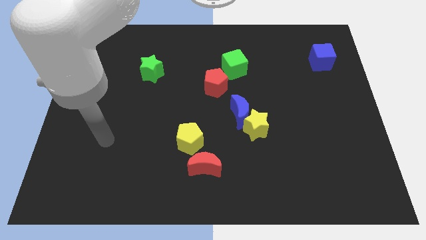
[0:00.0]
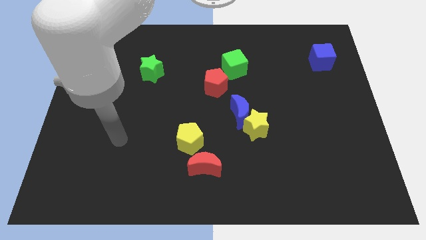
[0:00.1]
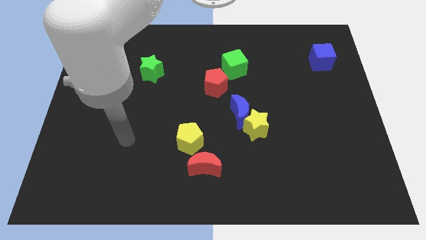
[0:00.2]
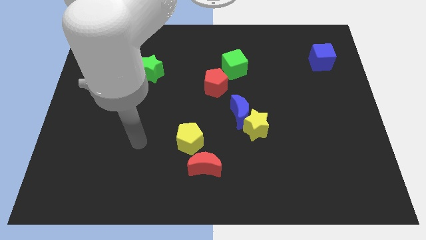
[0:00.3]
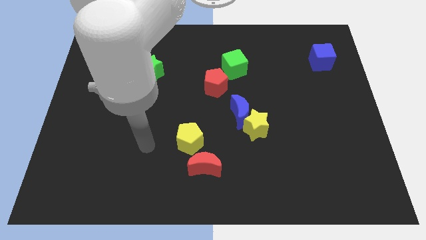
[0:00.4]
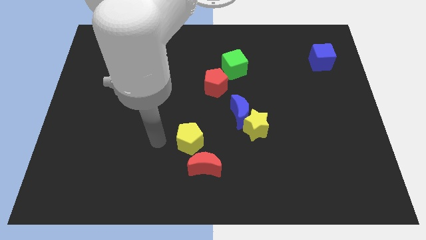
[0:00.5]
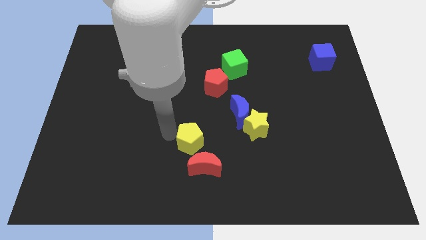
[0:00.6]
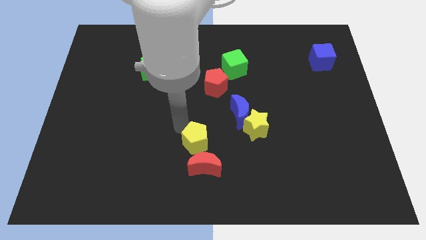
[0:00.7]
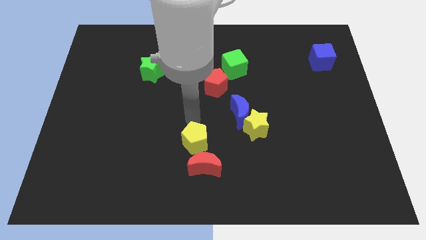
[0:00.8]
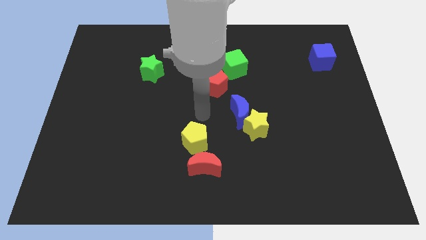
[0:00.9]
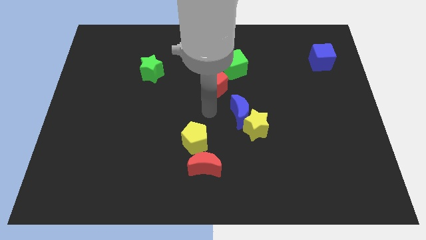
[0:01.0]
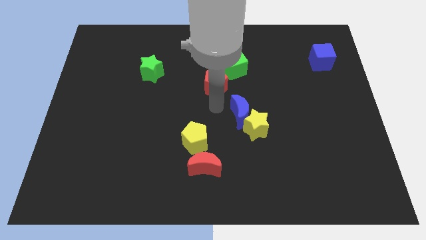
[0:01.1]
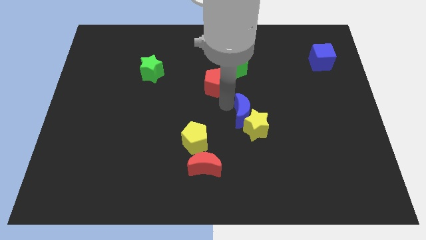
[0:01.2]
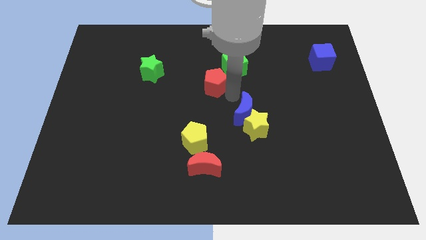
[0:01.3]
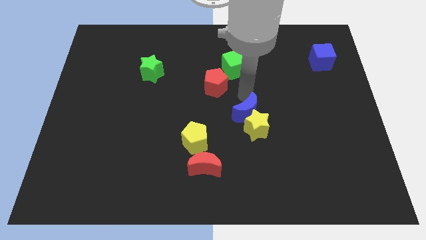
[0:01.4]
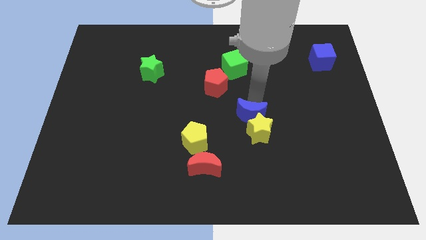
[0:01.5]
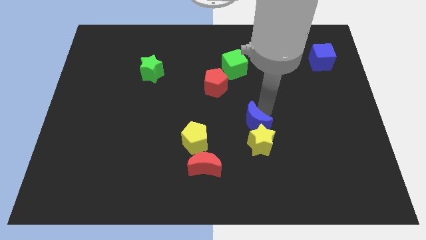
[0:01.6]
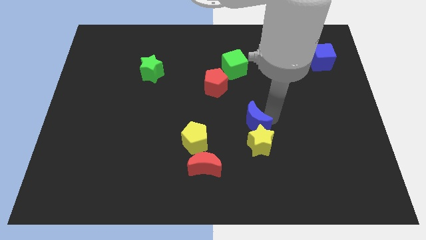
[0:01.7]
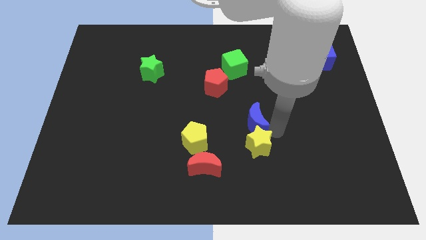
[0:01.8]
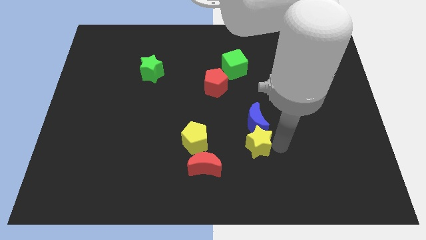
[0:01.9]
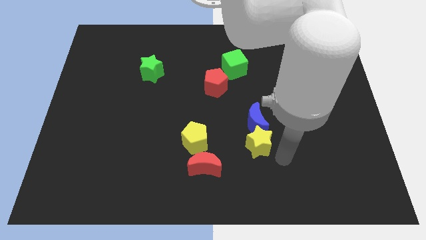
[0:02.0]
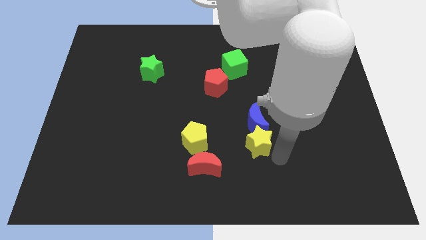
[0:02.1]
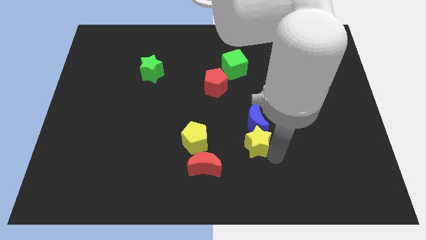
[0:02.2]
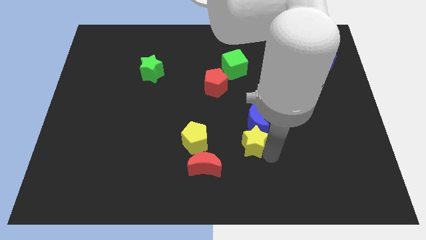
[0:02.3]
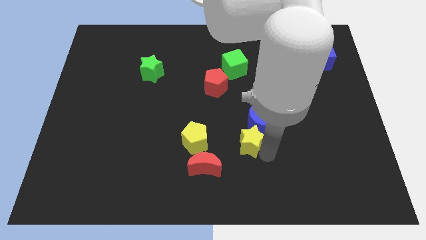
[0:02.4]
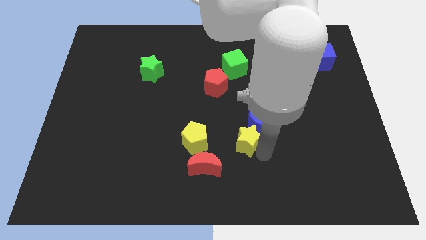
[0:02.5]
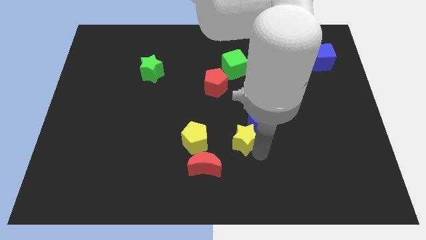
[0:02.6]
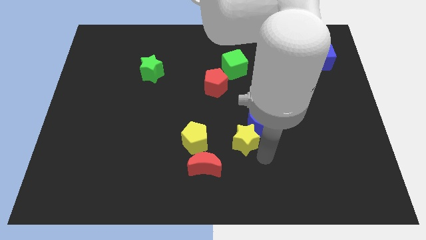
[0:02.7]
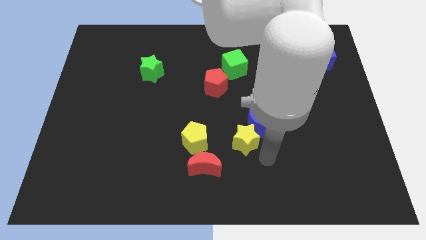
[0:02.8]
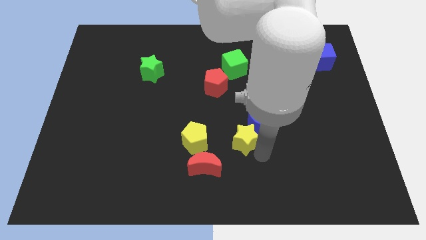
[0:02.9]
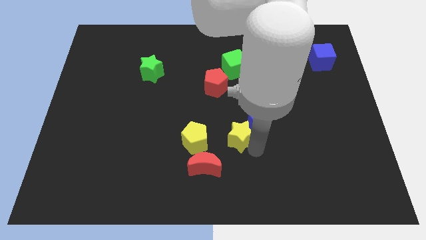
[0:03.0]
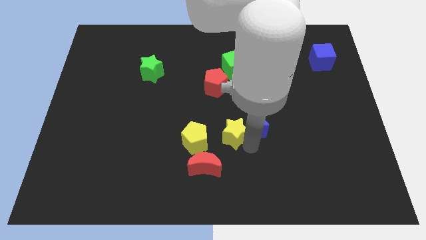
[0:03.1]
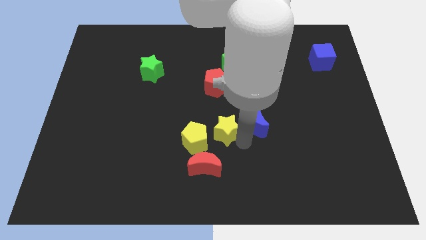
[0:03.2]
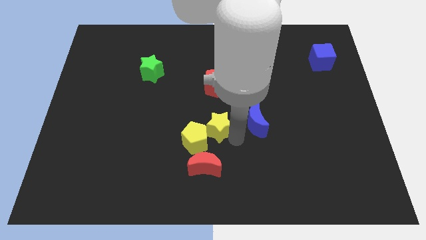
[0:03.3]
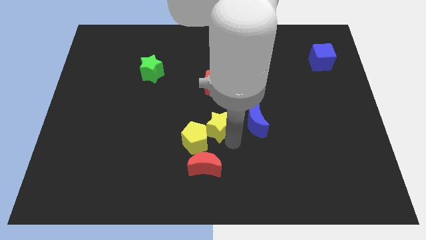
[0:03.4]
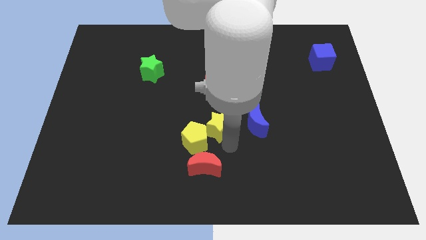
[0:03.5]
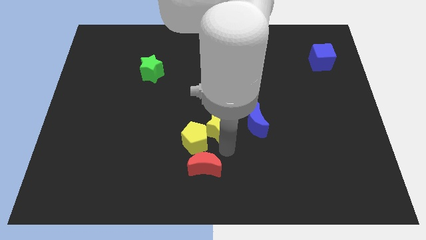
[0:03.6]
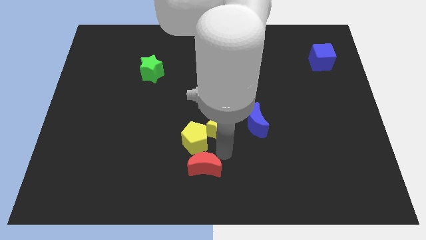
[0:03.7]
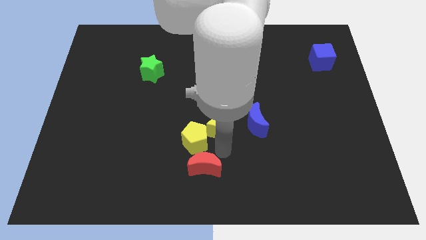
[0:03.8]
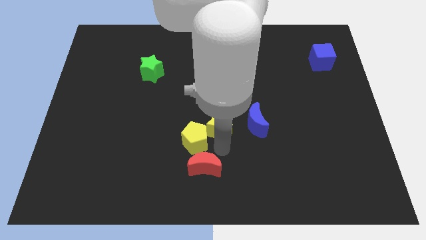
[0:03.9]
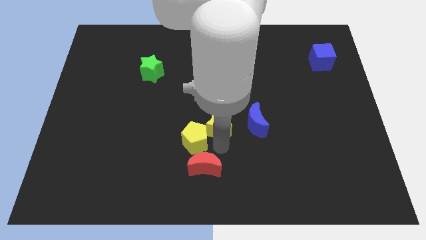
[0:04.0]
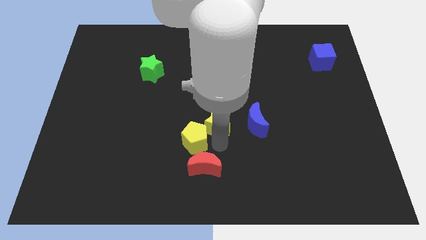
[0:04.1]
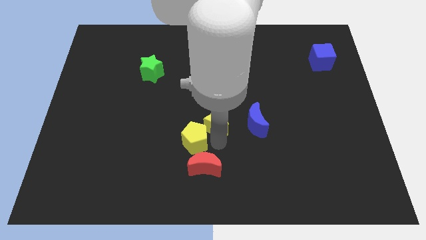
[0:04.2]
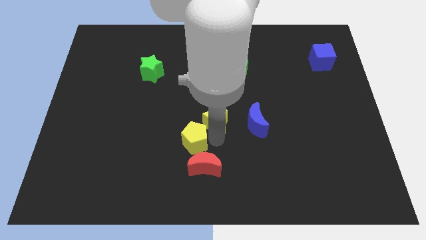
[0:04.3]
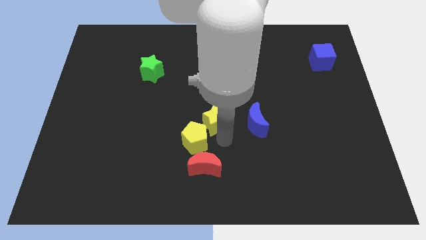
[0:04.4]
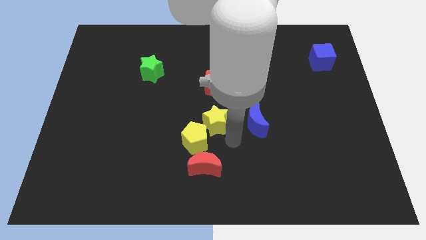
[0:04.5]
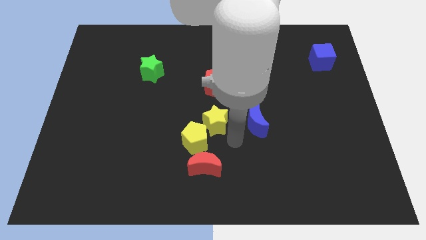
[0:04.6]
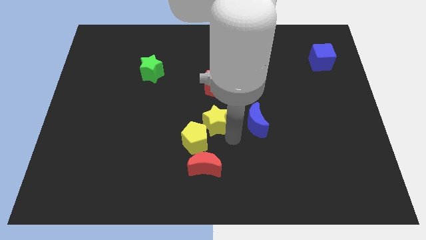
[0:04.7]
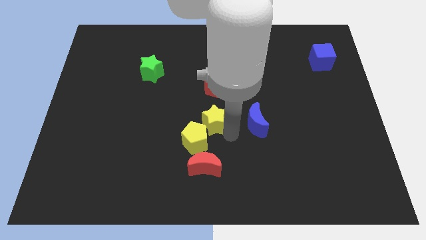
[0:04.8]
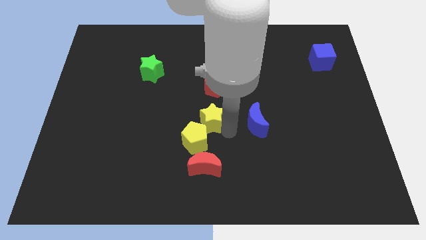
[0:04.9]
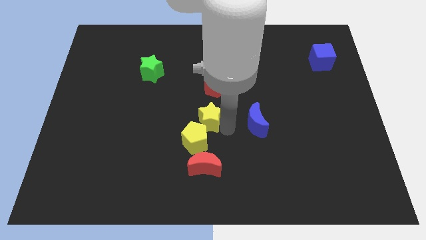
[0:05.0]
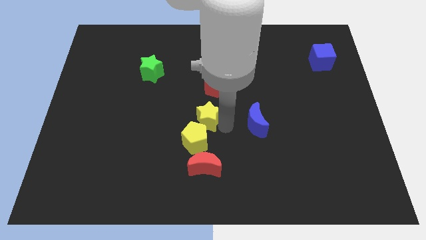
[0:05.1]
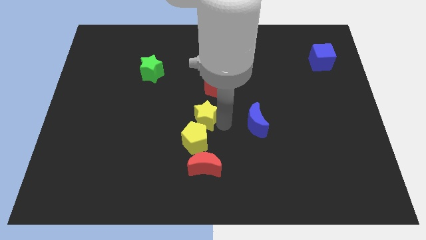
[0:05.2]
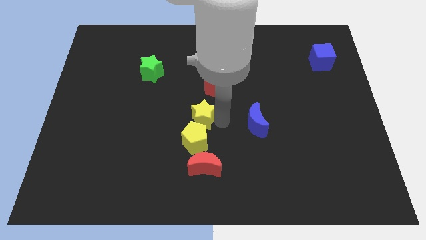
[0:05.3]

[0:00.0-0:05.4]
push the yellow star to the bottom left of the red pentagon

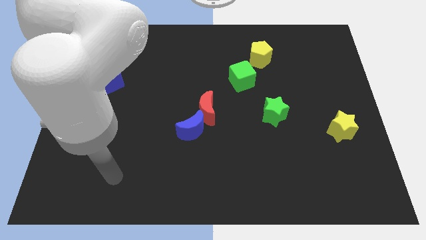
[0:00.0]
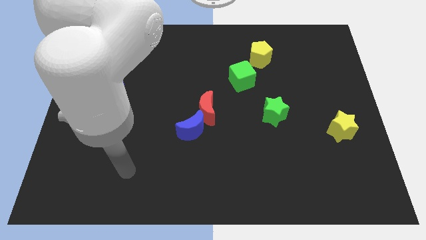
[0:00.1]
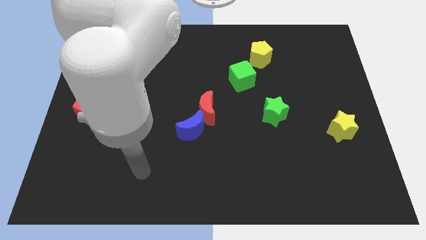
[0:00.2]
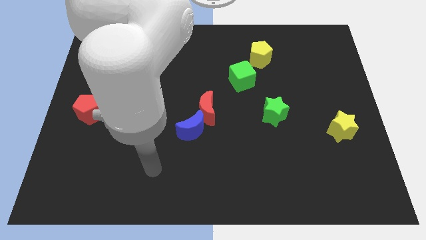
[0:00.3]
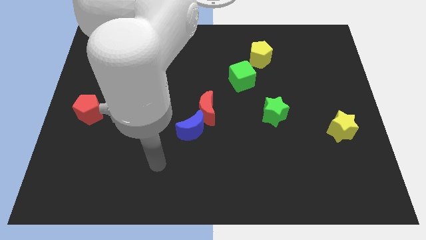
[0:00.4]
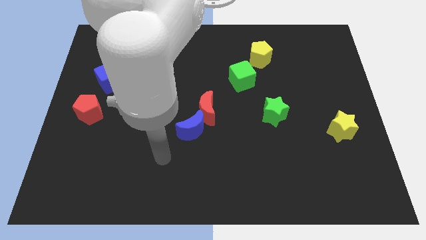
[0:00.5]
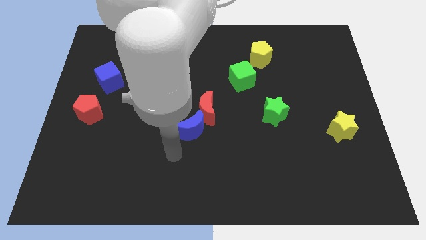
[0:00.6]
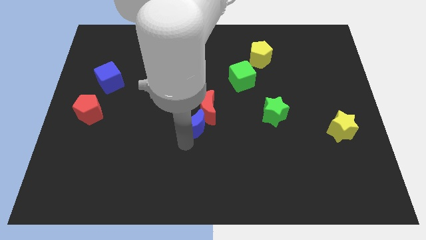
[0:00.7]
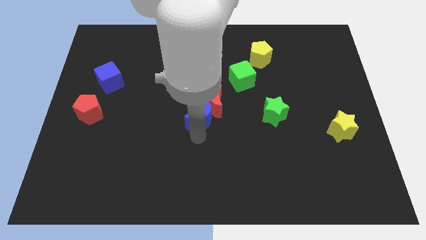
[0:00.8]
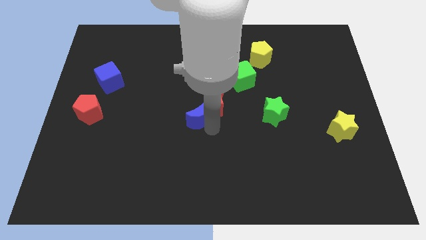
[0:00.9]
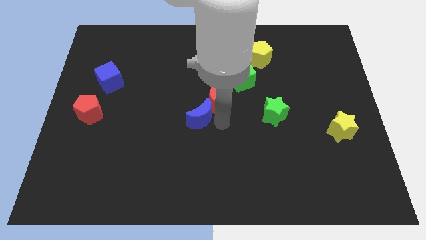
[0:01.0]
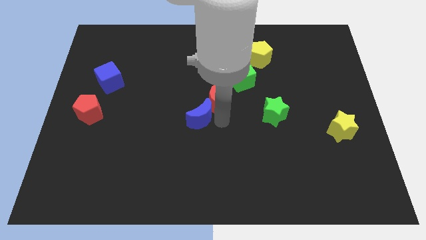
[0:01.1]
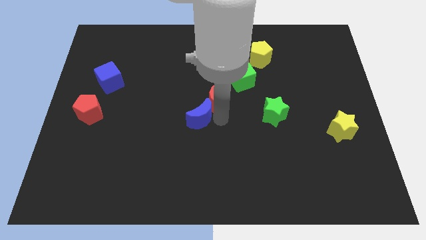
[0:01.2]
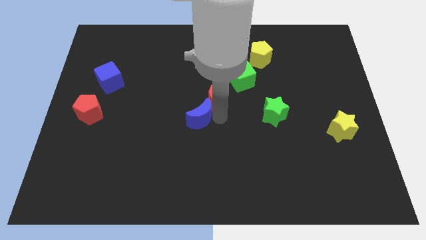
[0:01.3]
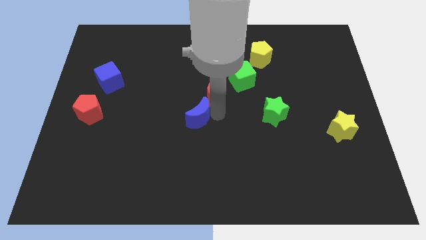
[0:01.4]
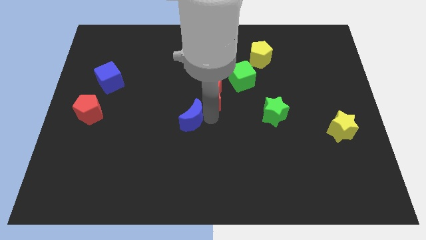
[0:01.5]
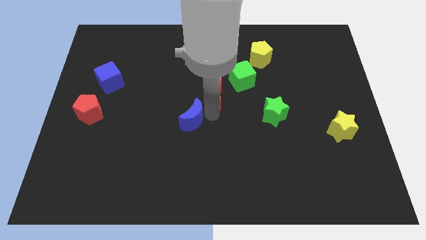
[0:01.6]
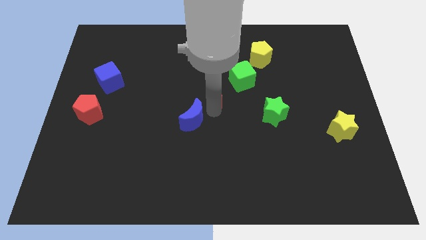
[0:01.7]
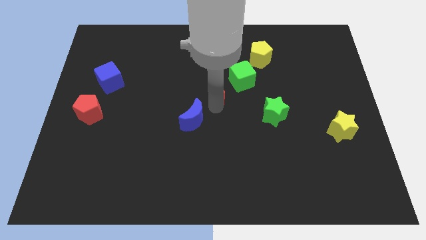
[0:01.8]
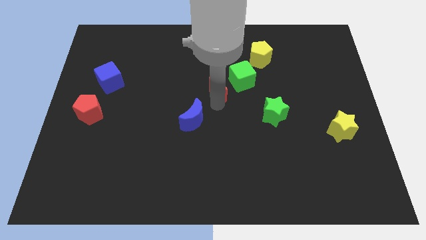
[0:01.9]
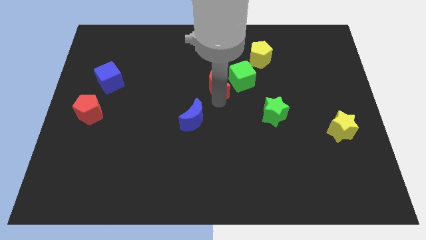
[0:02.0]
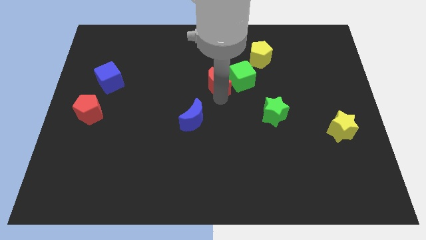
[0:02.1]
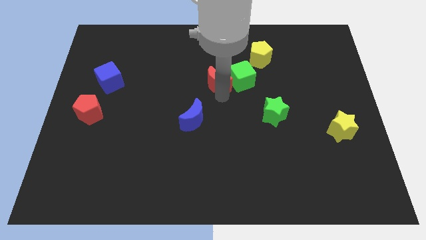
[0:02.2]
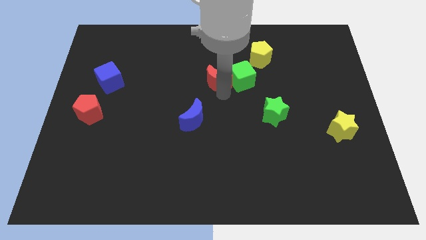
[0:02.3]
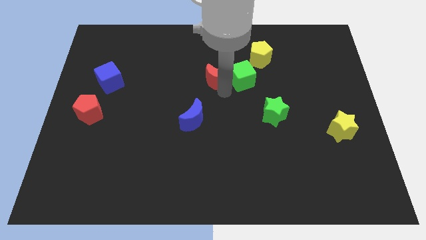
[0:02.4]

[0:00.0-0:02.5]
slide the red moon to the top left of the green cube
